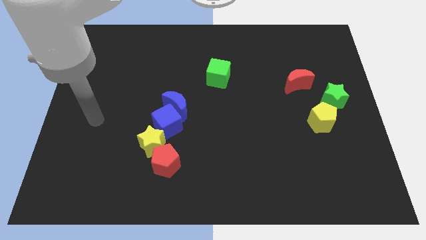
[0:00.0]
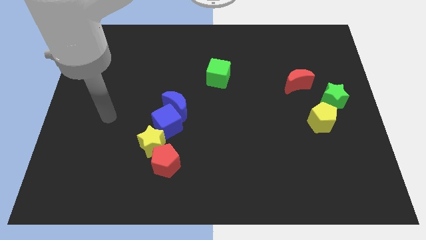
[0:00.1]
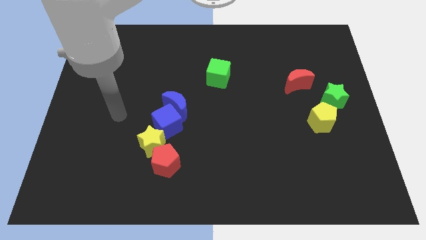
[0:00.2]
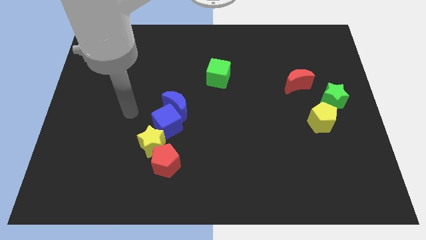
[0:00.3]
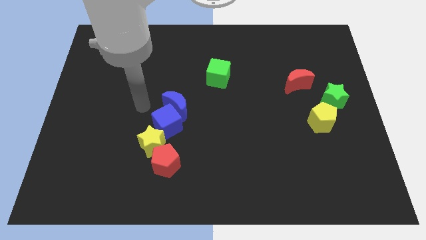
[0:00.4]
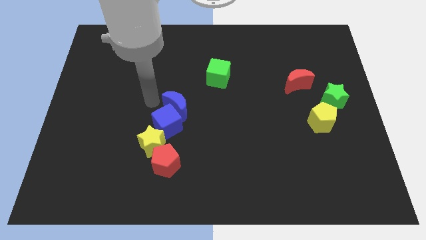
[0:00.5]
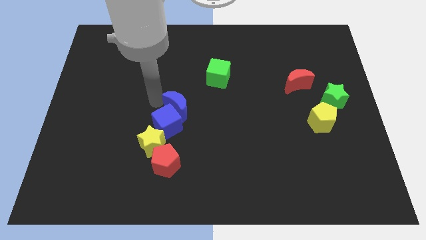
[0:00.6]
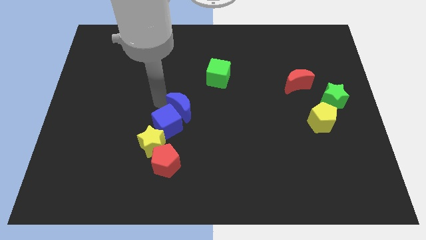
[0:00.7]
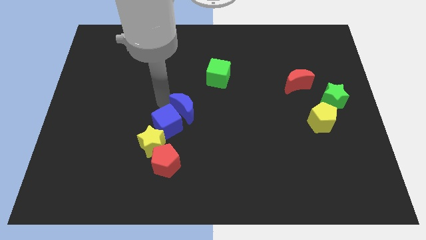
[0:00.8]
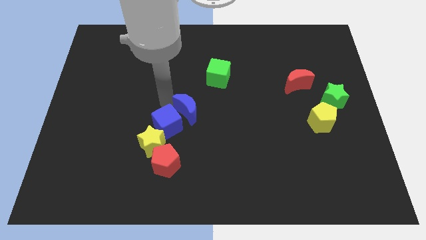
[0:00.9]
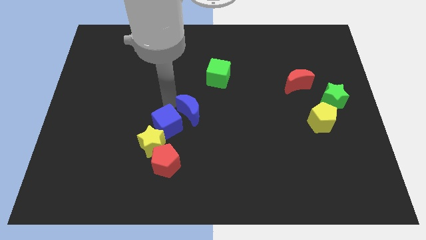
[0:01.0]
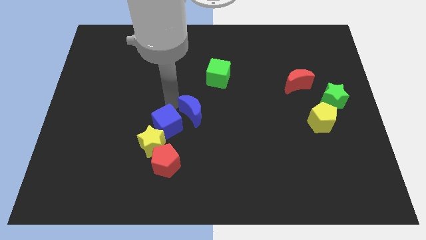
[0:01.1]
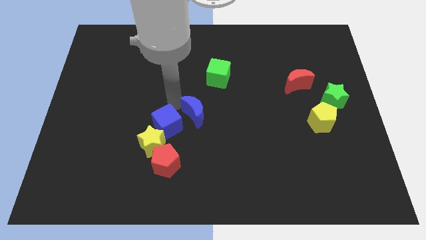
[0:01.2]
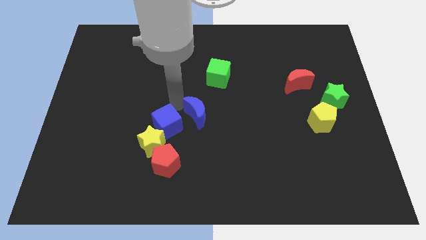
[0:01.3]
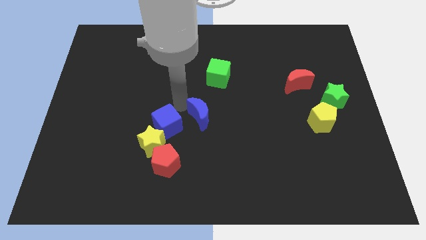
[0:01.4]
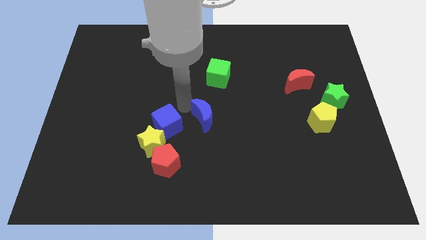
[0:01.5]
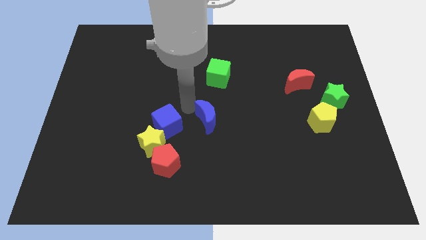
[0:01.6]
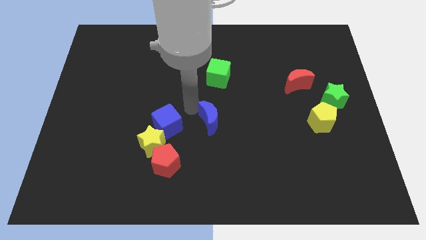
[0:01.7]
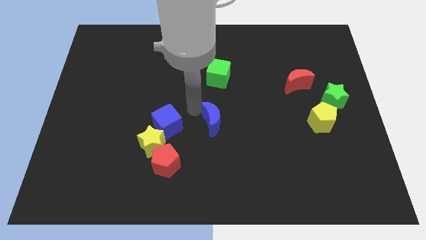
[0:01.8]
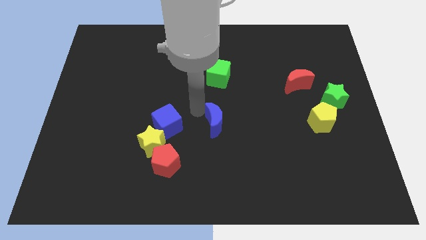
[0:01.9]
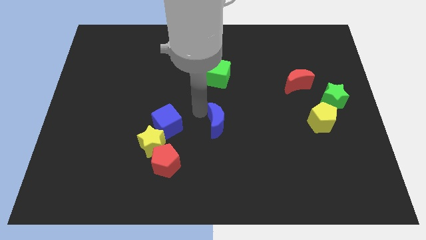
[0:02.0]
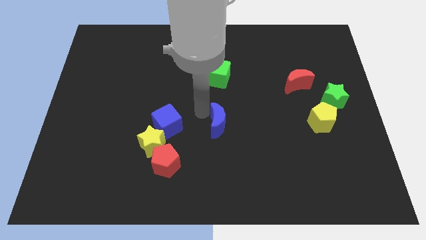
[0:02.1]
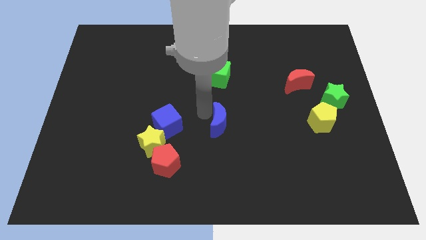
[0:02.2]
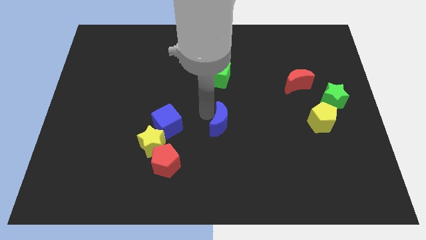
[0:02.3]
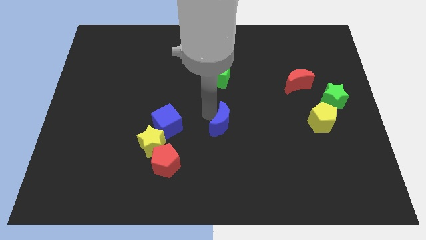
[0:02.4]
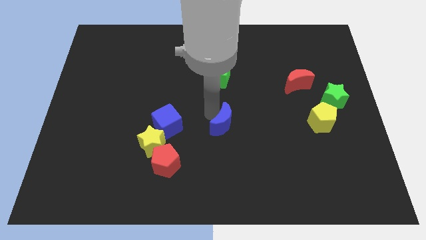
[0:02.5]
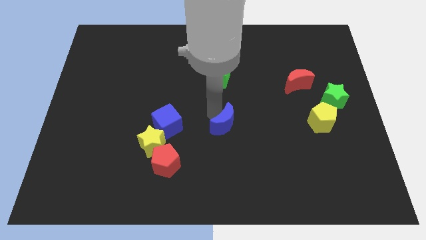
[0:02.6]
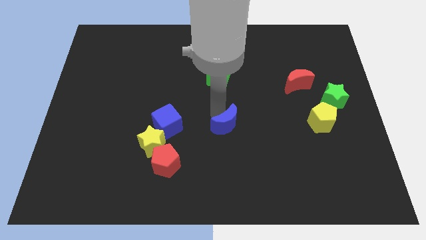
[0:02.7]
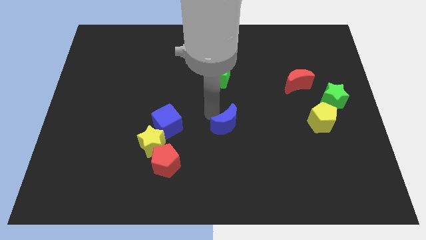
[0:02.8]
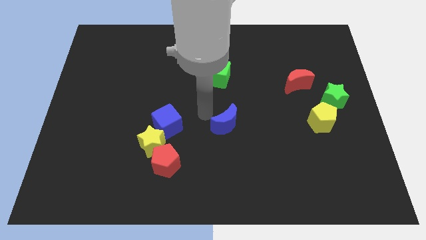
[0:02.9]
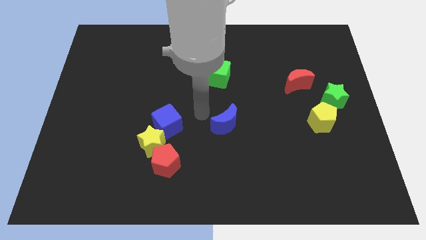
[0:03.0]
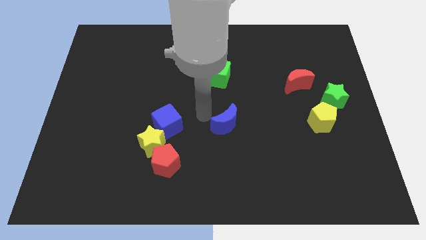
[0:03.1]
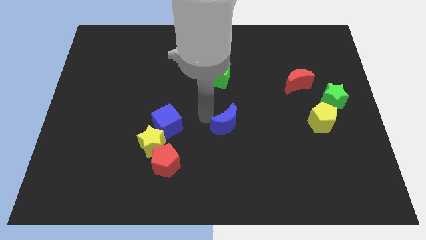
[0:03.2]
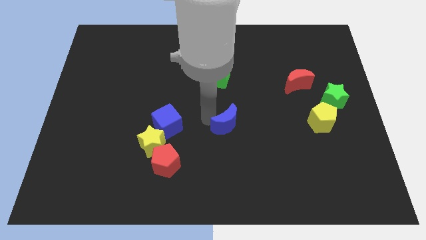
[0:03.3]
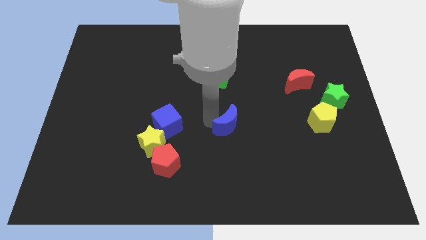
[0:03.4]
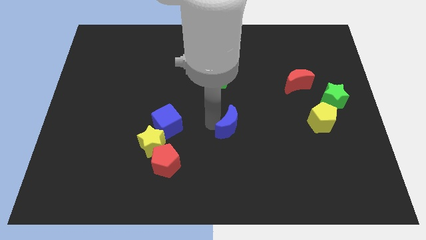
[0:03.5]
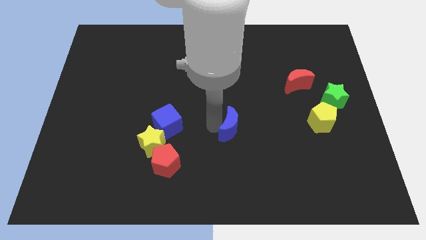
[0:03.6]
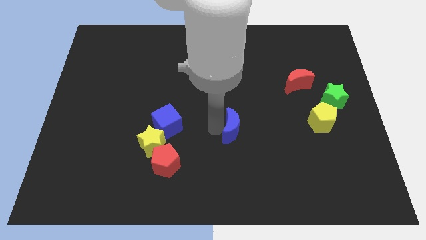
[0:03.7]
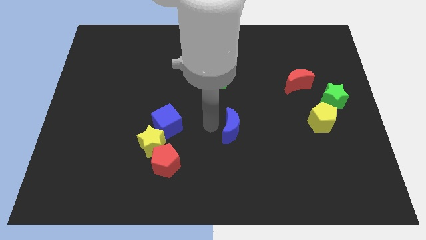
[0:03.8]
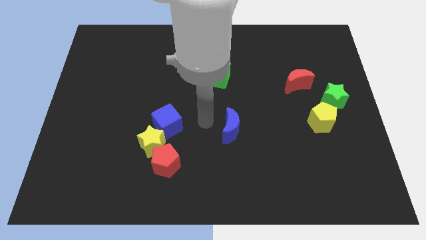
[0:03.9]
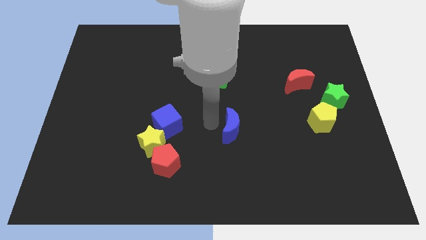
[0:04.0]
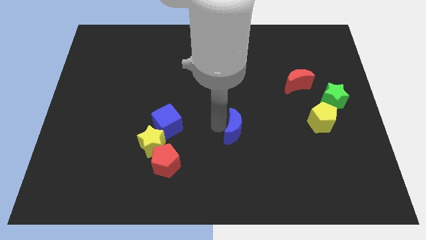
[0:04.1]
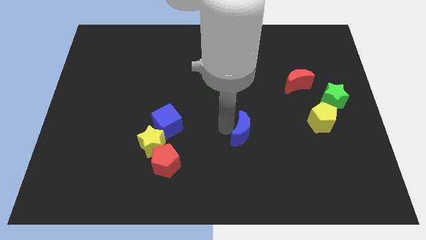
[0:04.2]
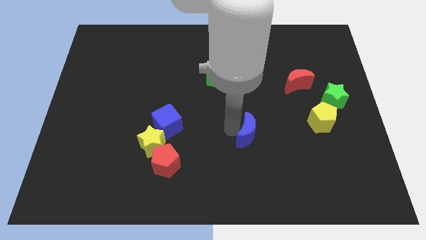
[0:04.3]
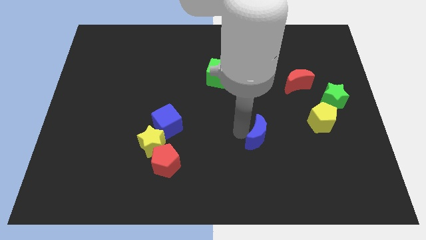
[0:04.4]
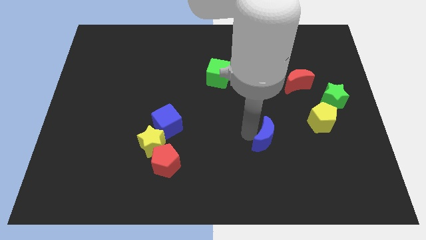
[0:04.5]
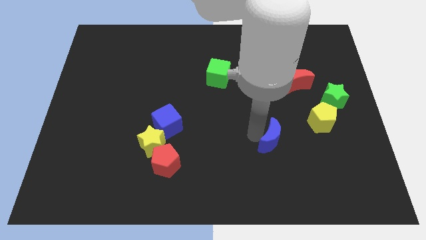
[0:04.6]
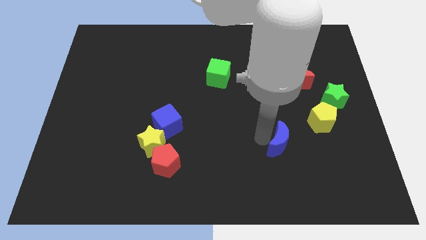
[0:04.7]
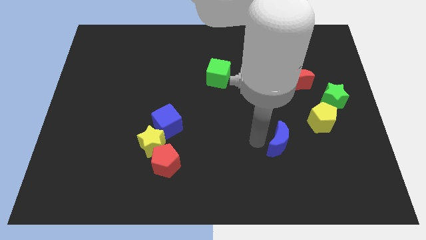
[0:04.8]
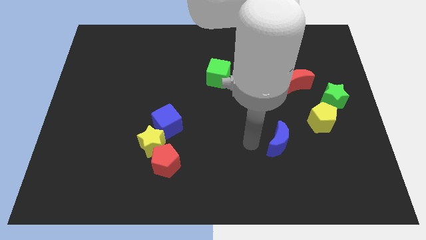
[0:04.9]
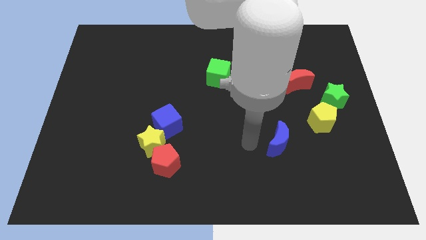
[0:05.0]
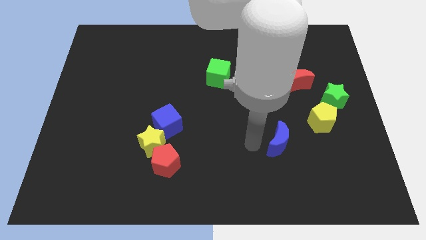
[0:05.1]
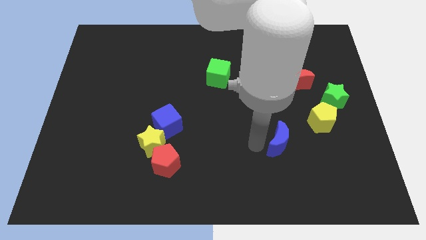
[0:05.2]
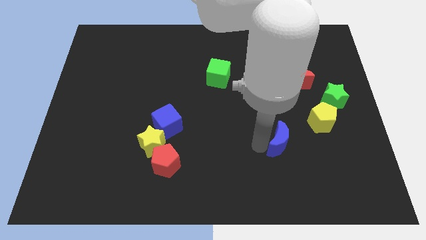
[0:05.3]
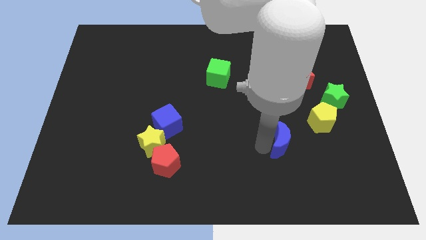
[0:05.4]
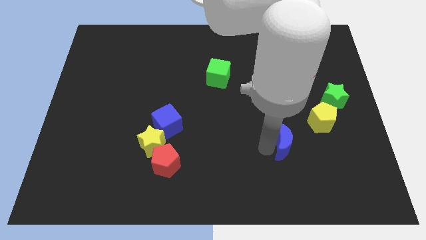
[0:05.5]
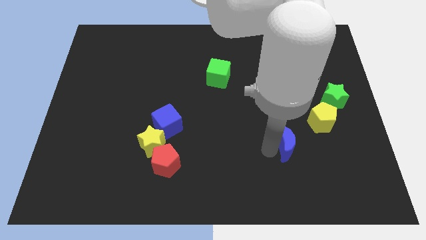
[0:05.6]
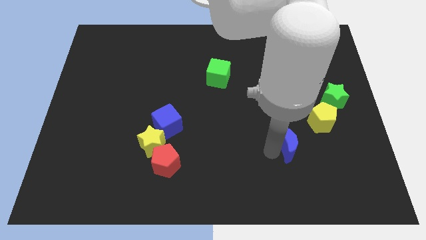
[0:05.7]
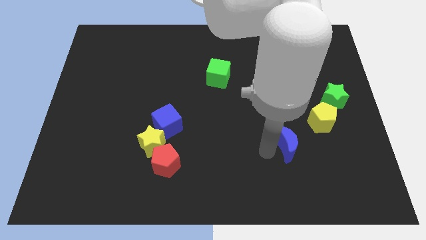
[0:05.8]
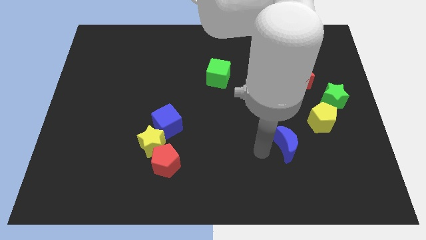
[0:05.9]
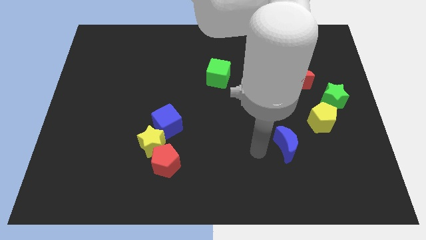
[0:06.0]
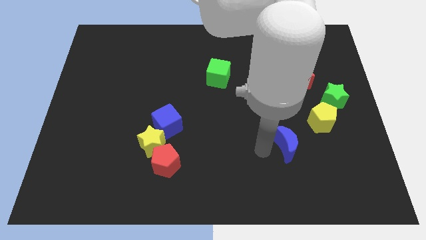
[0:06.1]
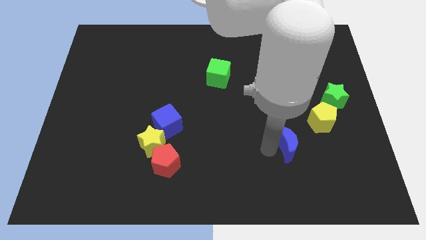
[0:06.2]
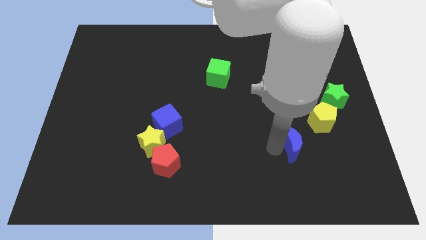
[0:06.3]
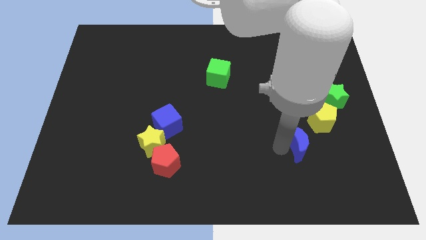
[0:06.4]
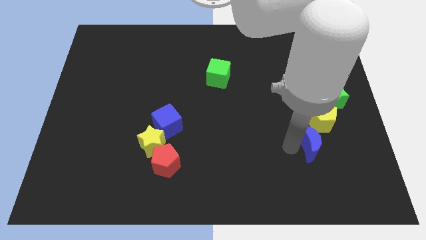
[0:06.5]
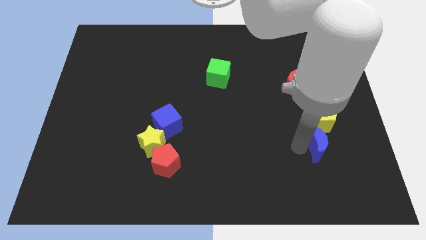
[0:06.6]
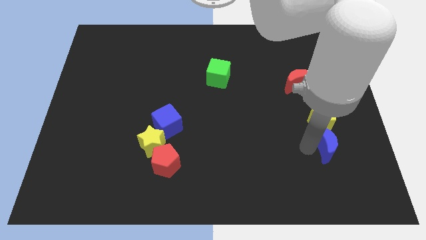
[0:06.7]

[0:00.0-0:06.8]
put the blue moon below the green star

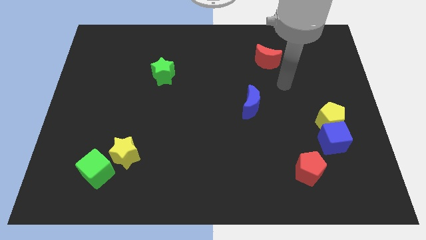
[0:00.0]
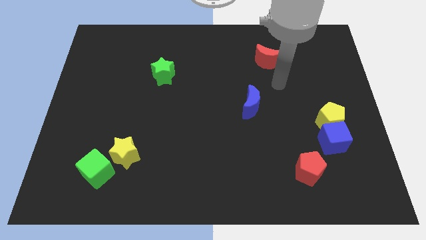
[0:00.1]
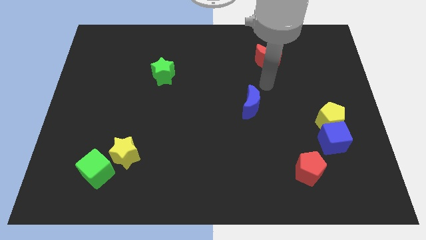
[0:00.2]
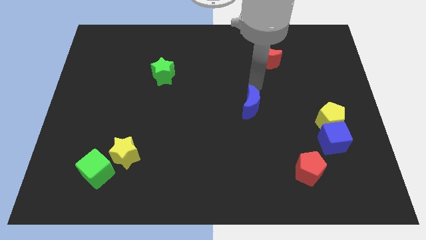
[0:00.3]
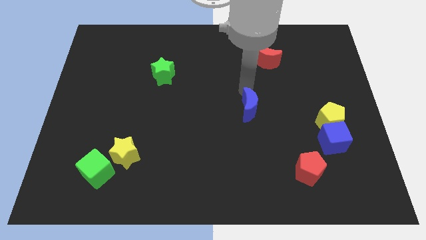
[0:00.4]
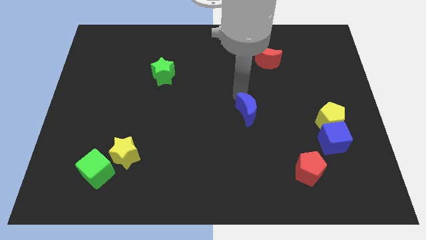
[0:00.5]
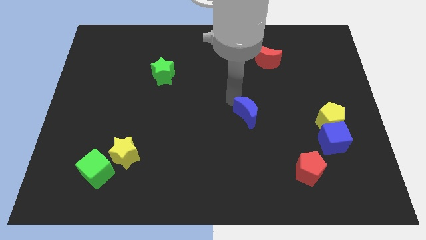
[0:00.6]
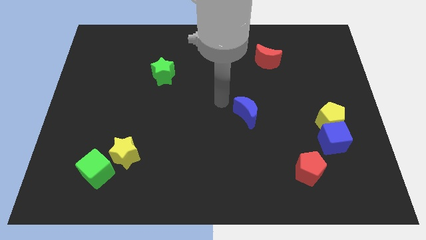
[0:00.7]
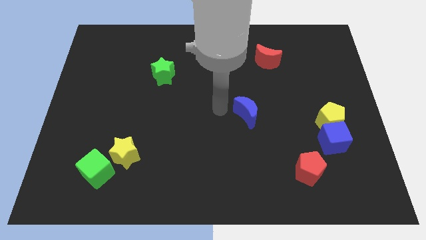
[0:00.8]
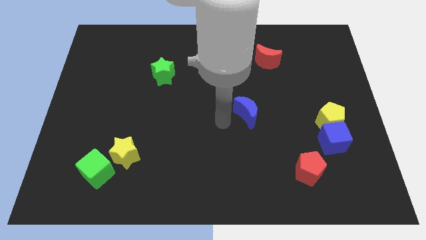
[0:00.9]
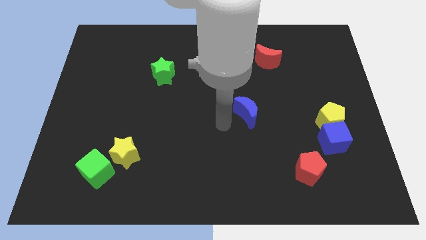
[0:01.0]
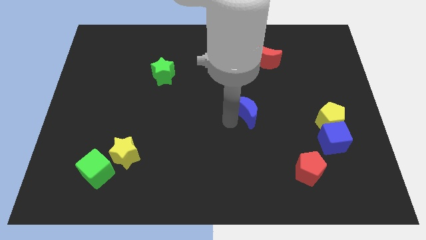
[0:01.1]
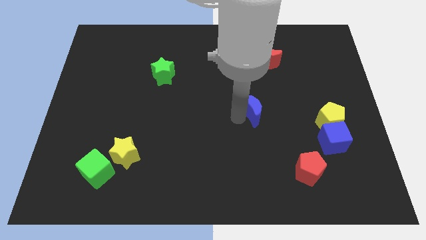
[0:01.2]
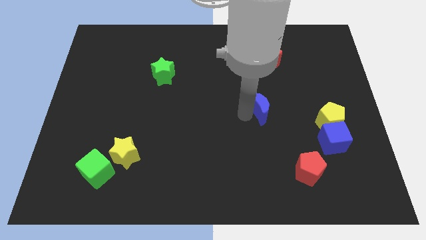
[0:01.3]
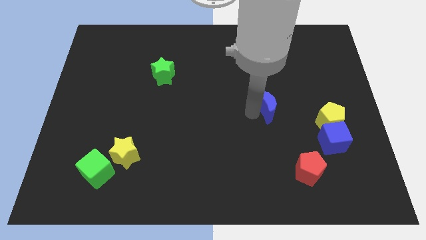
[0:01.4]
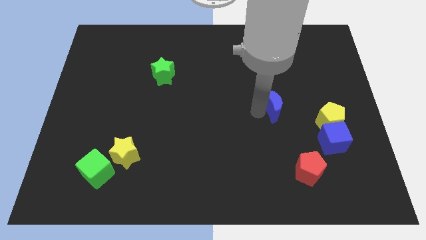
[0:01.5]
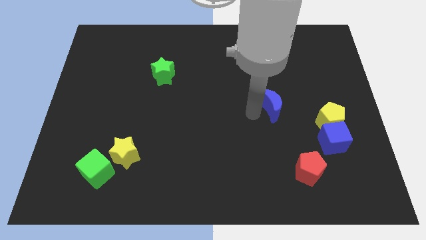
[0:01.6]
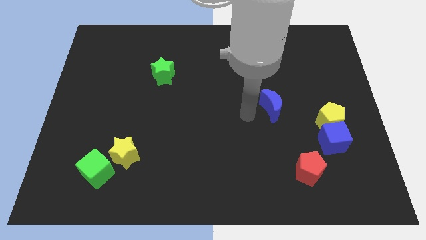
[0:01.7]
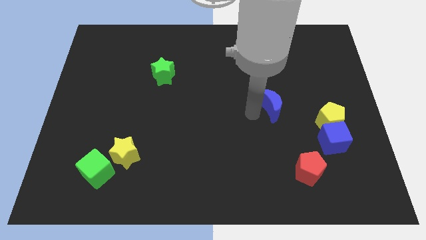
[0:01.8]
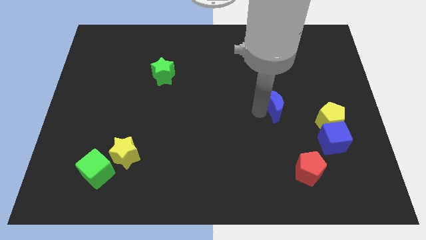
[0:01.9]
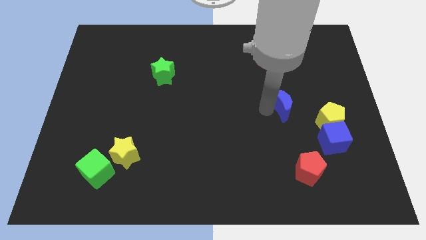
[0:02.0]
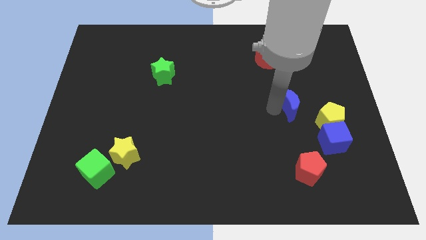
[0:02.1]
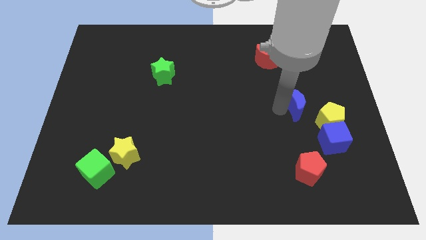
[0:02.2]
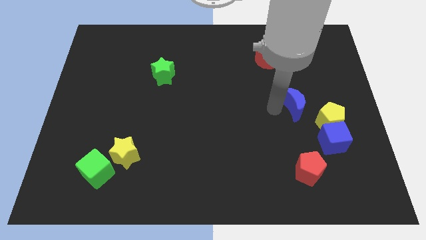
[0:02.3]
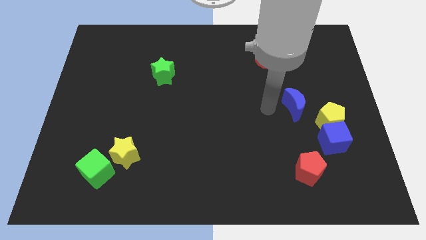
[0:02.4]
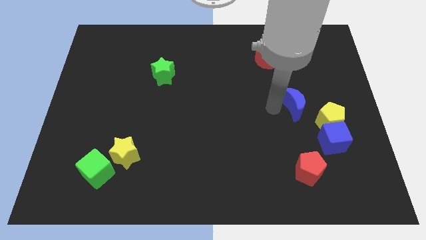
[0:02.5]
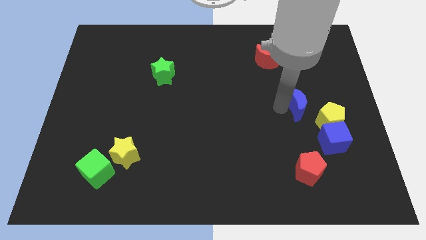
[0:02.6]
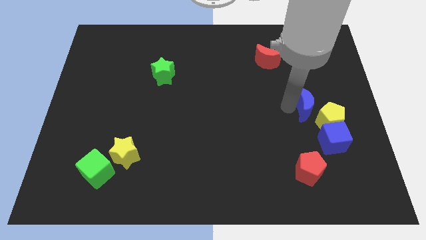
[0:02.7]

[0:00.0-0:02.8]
put the blue moon above the blue cube
